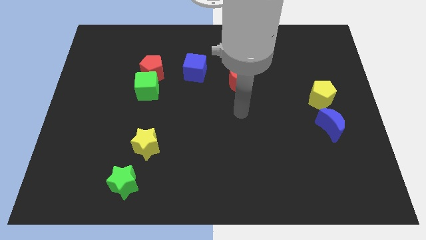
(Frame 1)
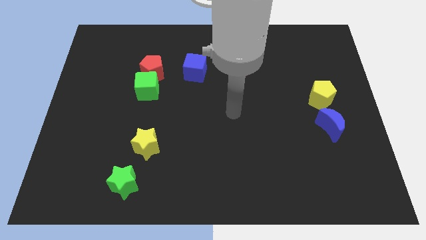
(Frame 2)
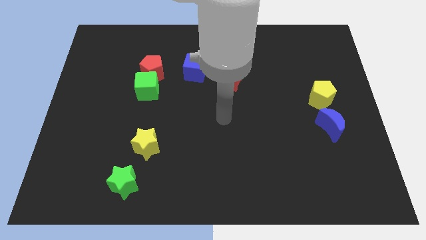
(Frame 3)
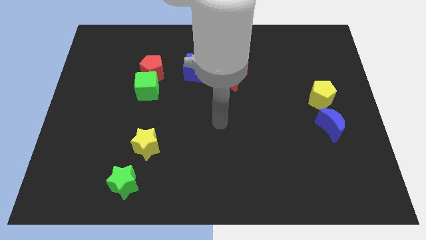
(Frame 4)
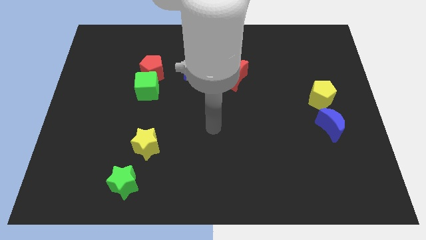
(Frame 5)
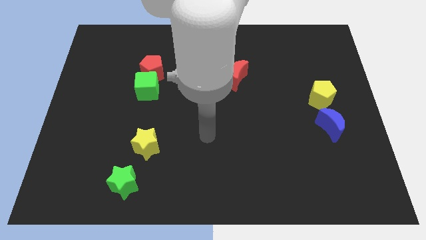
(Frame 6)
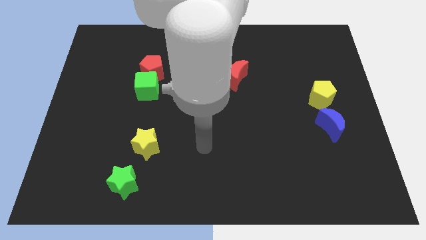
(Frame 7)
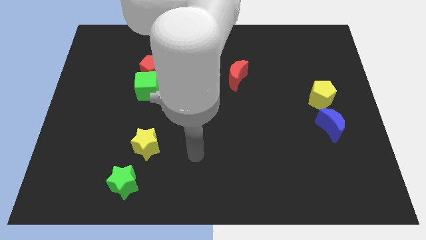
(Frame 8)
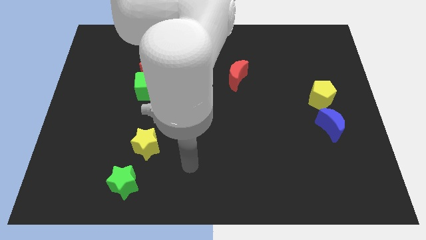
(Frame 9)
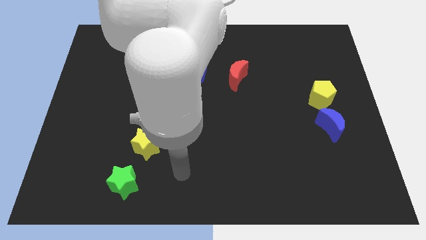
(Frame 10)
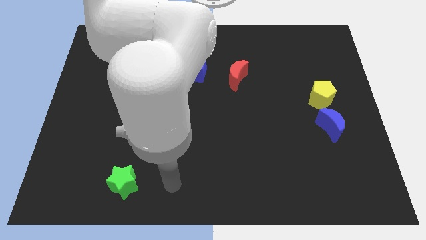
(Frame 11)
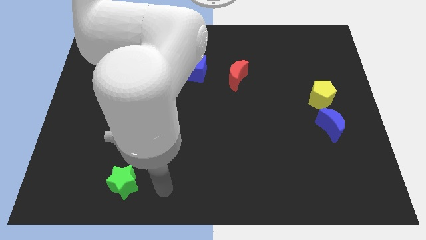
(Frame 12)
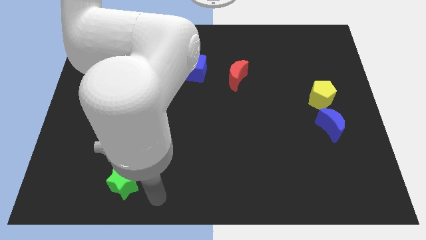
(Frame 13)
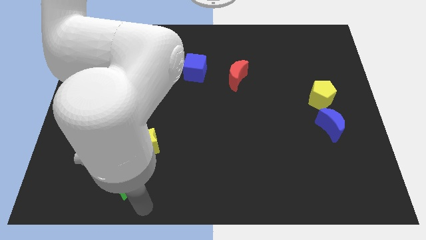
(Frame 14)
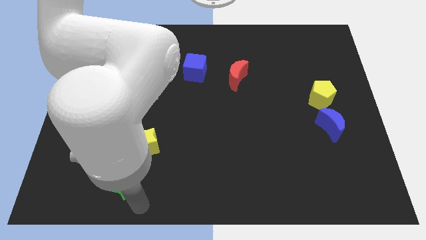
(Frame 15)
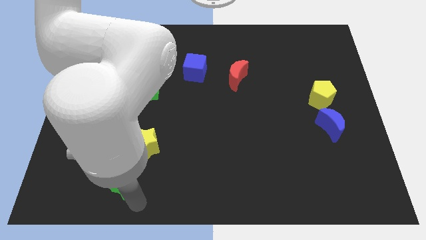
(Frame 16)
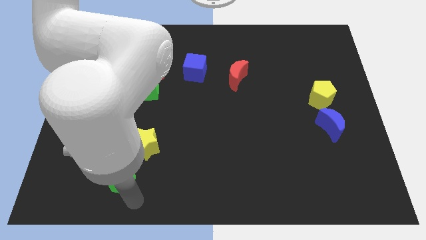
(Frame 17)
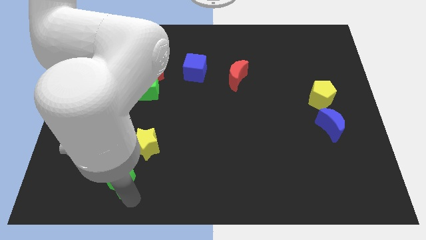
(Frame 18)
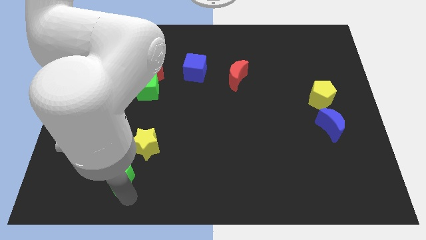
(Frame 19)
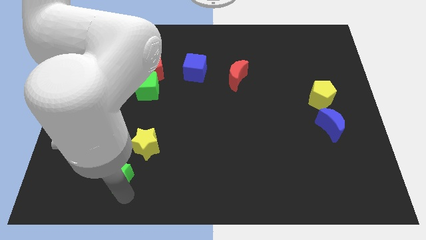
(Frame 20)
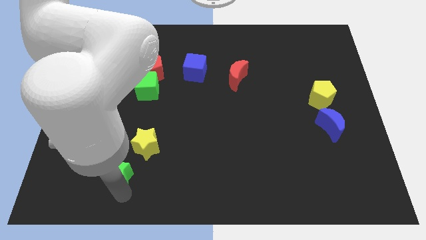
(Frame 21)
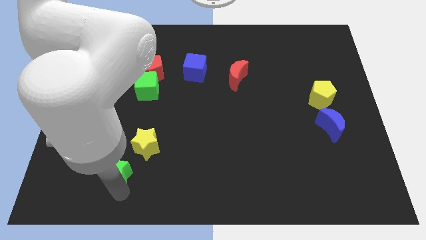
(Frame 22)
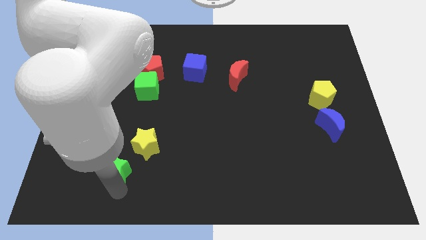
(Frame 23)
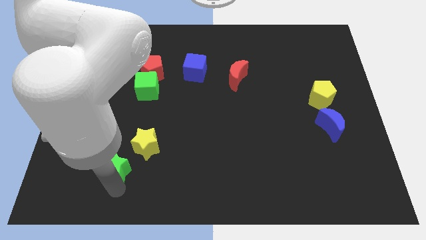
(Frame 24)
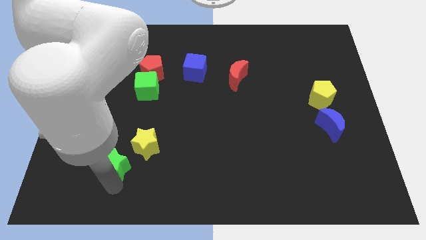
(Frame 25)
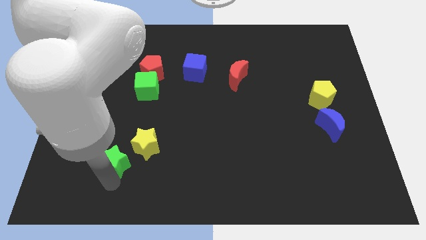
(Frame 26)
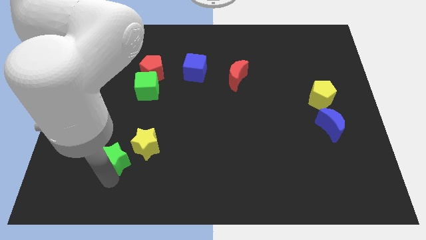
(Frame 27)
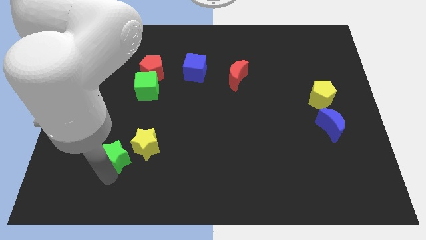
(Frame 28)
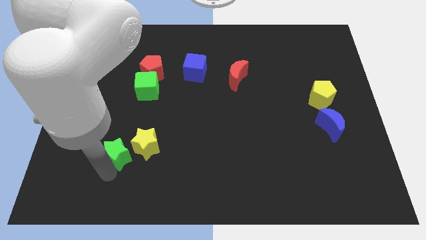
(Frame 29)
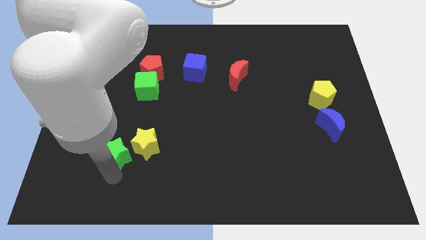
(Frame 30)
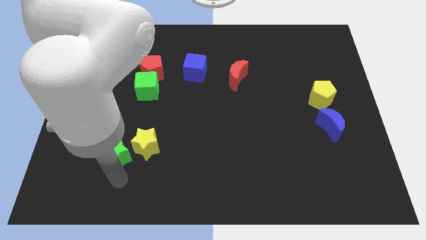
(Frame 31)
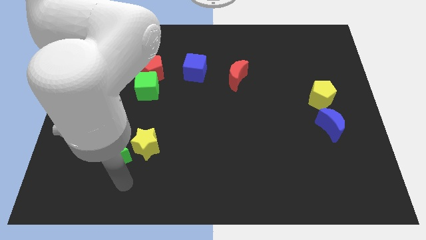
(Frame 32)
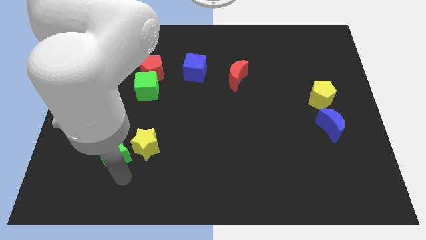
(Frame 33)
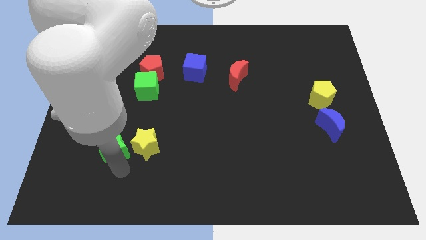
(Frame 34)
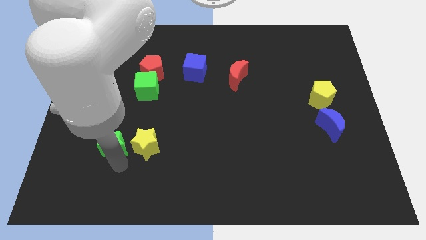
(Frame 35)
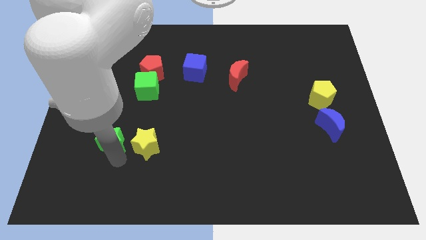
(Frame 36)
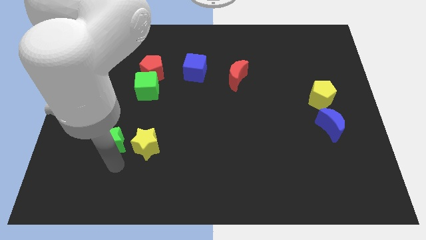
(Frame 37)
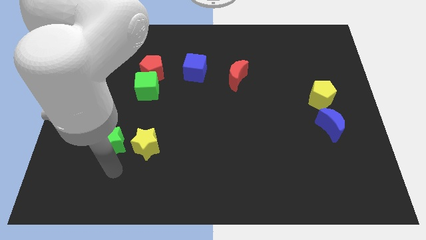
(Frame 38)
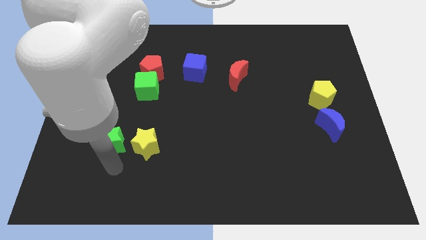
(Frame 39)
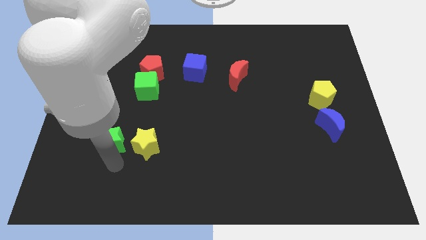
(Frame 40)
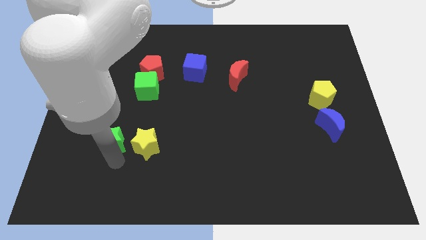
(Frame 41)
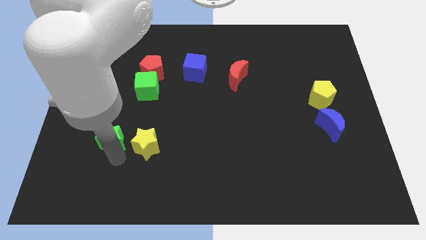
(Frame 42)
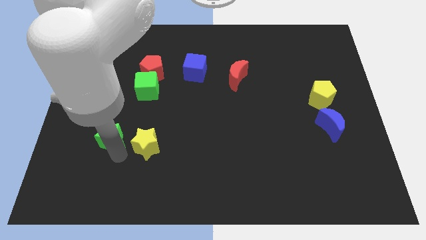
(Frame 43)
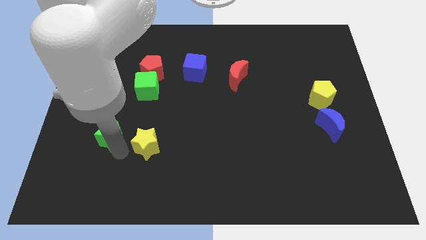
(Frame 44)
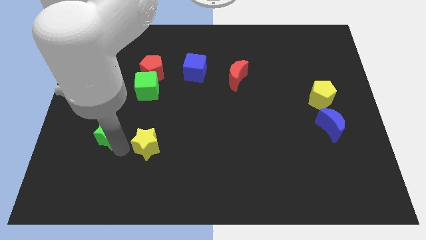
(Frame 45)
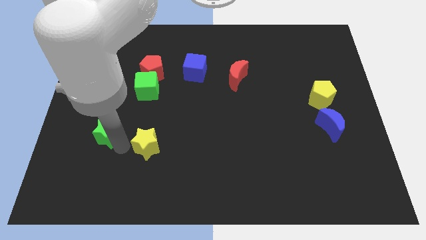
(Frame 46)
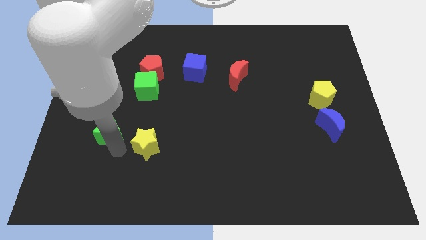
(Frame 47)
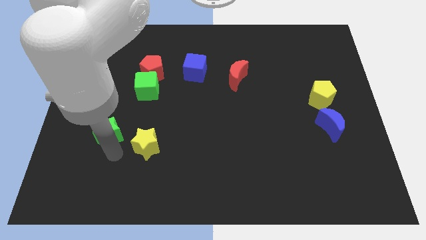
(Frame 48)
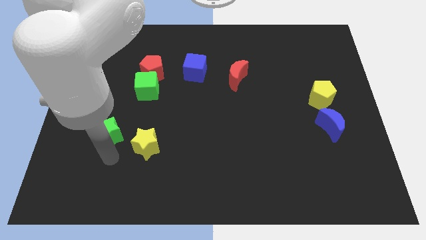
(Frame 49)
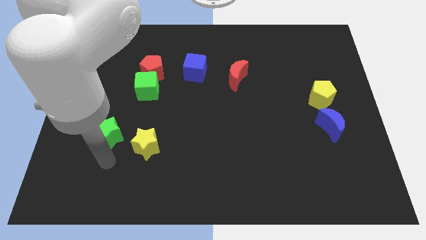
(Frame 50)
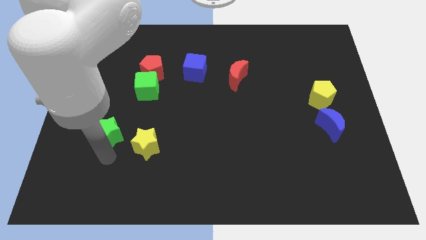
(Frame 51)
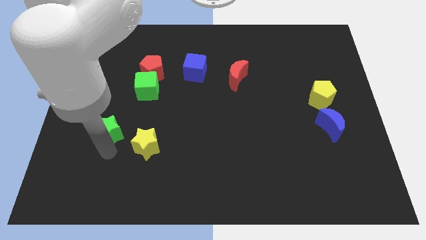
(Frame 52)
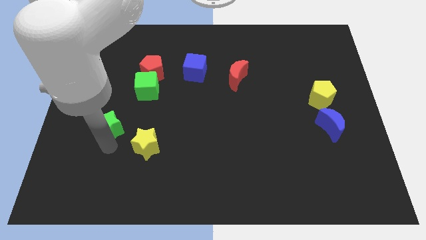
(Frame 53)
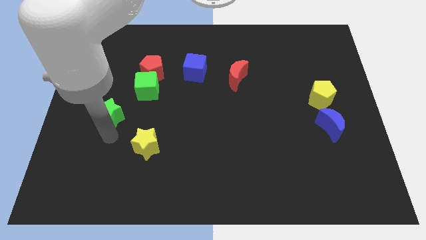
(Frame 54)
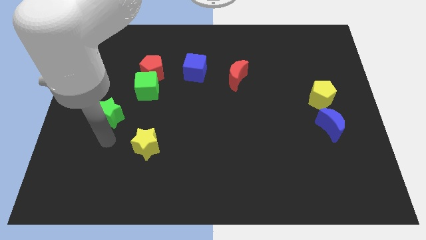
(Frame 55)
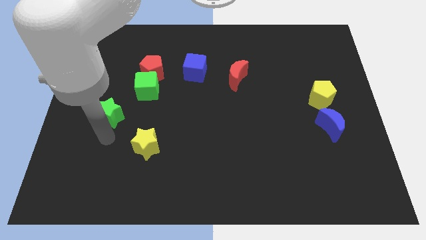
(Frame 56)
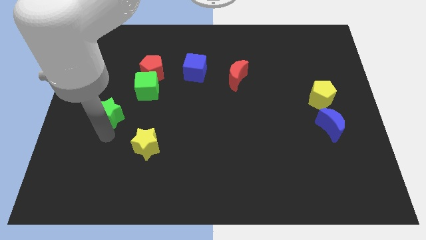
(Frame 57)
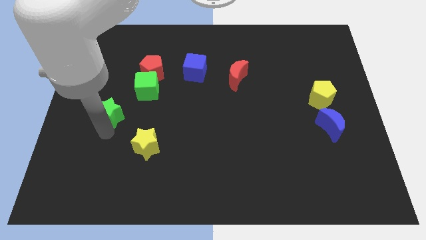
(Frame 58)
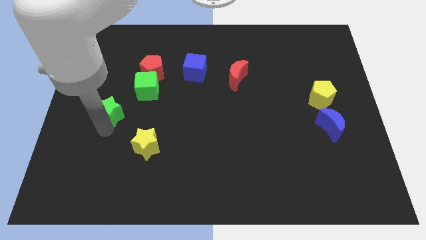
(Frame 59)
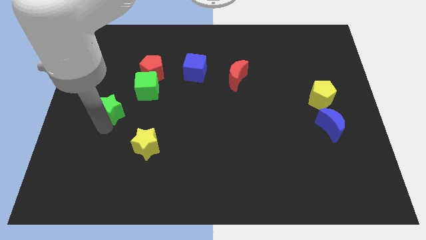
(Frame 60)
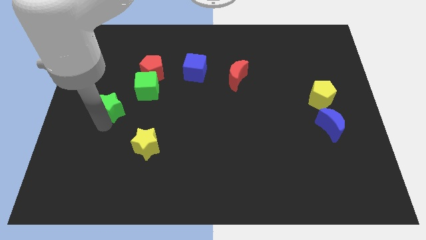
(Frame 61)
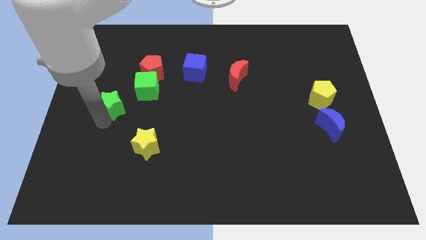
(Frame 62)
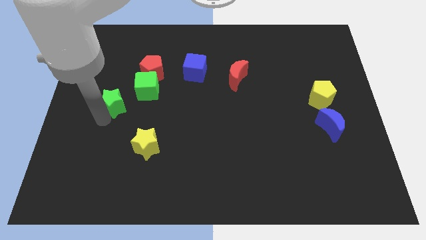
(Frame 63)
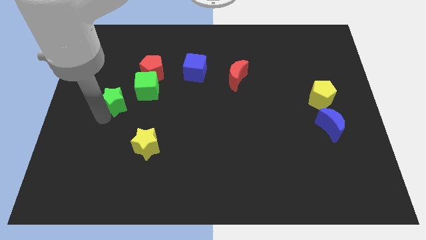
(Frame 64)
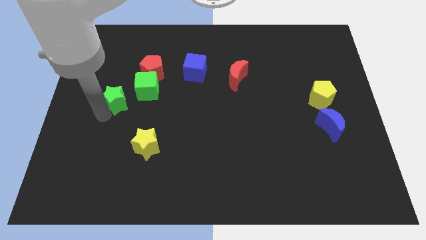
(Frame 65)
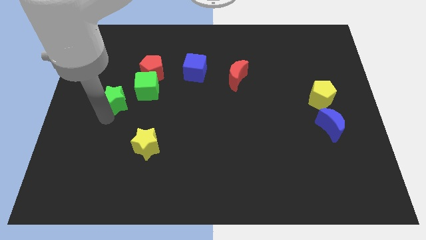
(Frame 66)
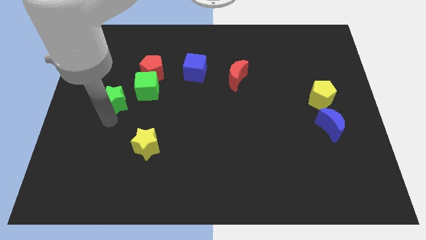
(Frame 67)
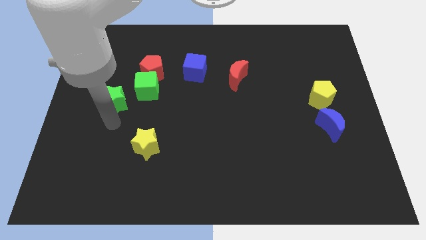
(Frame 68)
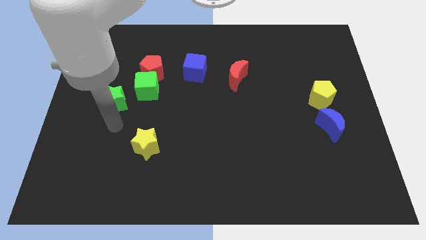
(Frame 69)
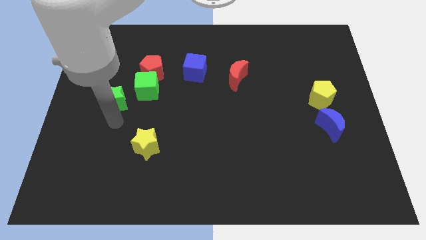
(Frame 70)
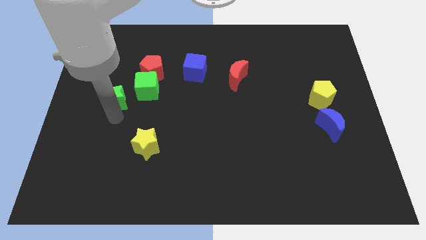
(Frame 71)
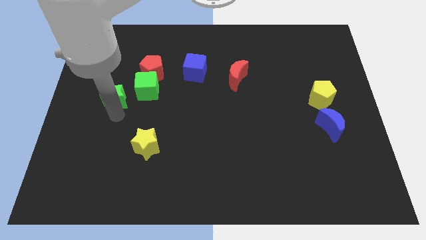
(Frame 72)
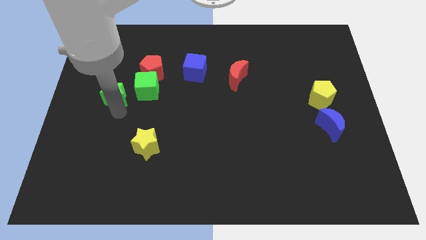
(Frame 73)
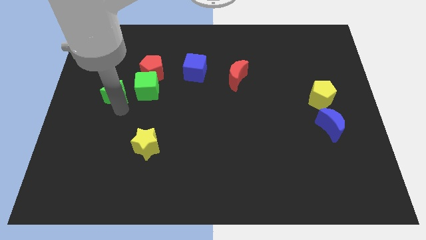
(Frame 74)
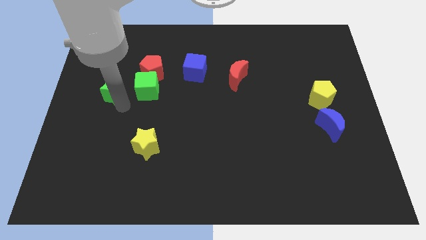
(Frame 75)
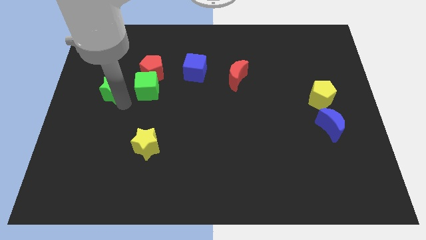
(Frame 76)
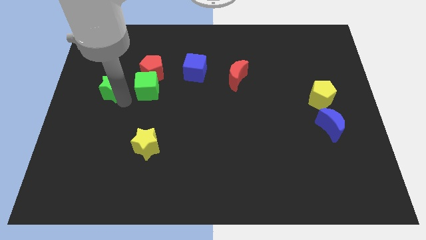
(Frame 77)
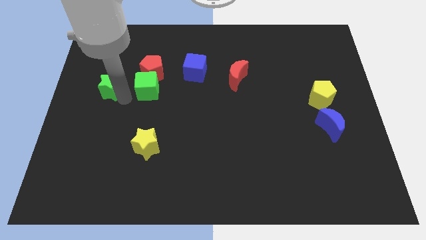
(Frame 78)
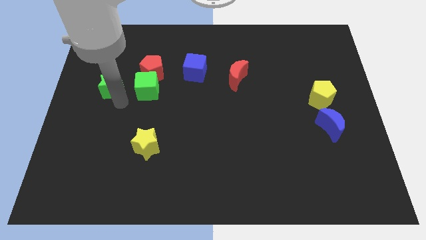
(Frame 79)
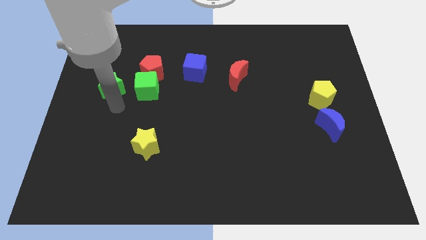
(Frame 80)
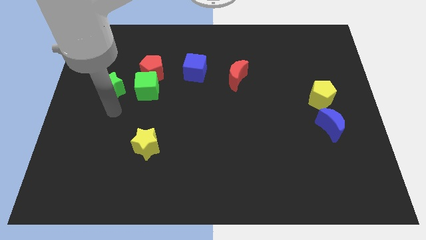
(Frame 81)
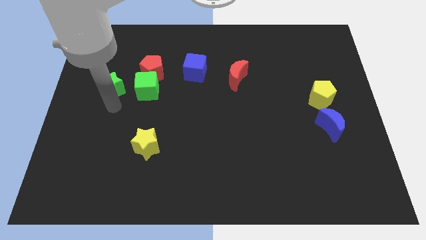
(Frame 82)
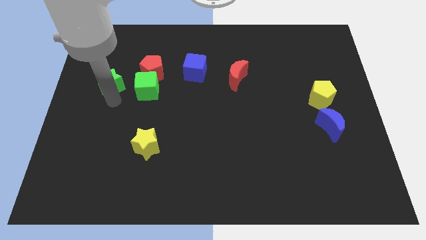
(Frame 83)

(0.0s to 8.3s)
put the green star to the left of the red pentagon
